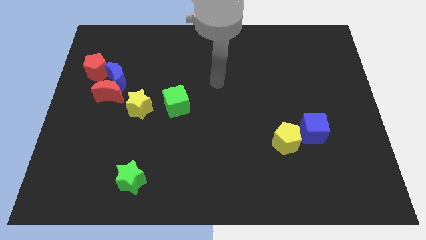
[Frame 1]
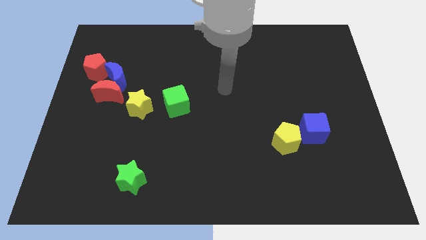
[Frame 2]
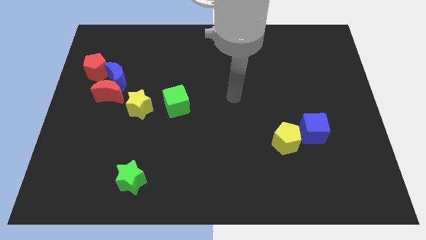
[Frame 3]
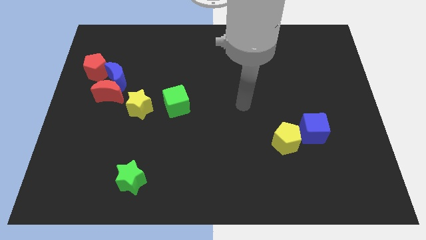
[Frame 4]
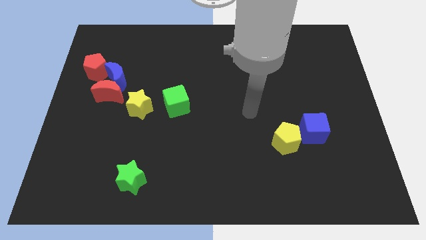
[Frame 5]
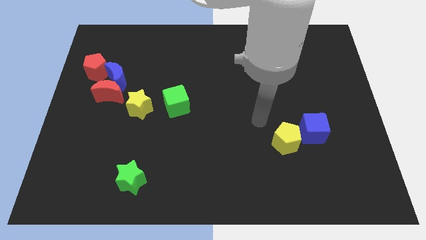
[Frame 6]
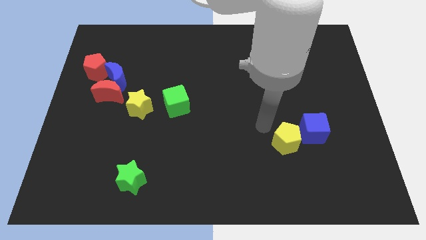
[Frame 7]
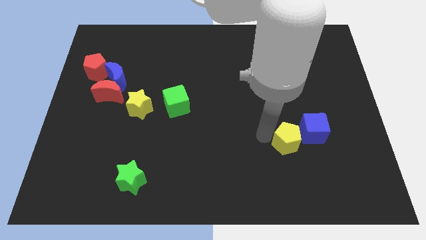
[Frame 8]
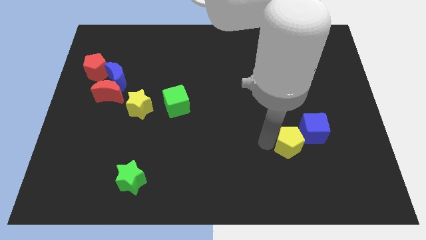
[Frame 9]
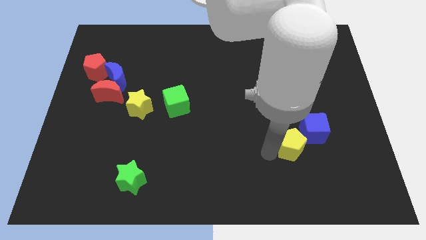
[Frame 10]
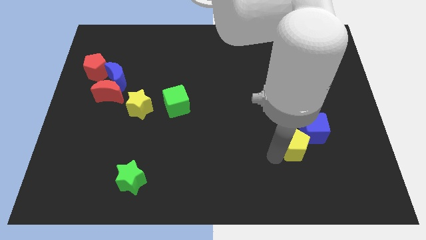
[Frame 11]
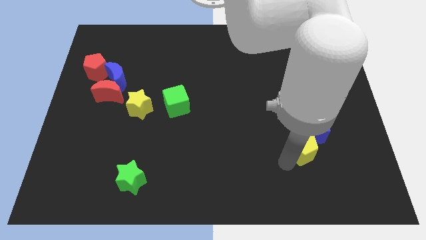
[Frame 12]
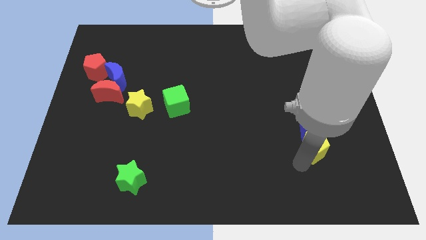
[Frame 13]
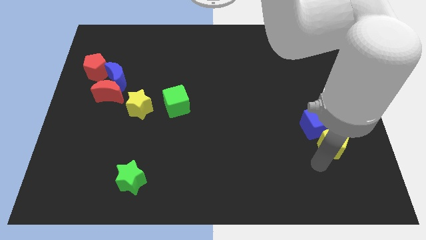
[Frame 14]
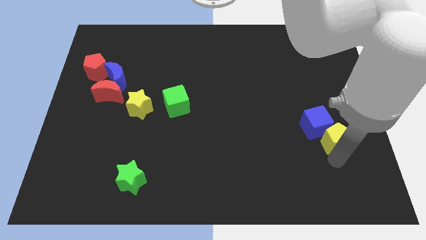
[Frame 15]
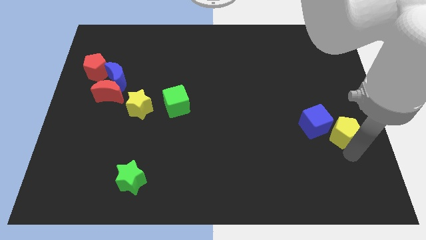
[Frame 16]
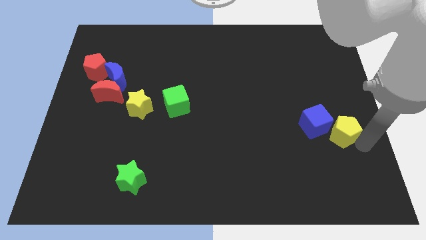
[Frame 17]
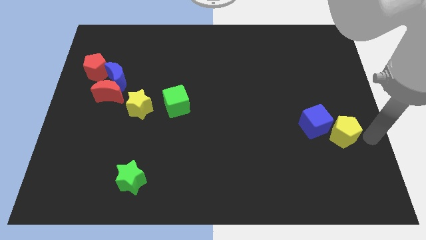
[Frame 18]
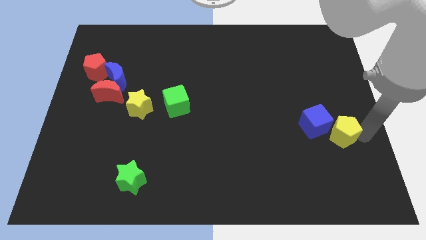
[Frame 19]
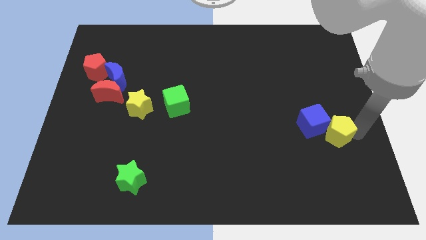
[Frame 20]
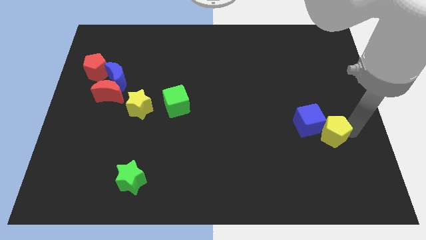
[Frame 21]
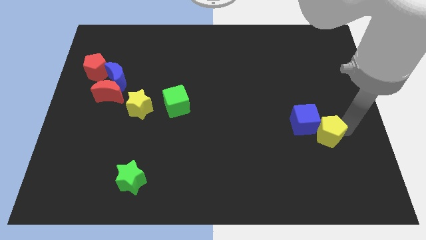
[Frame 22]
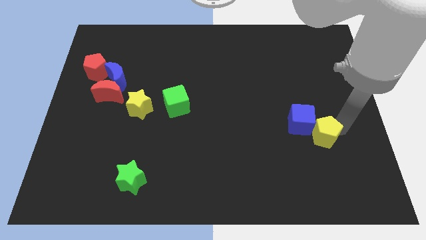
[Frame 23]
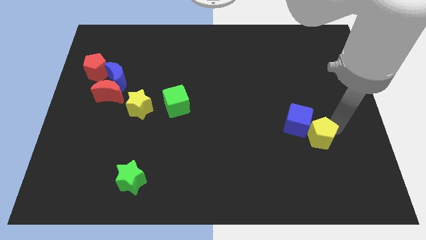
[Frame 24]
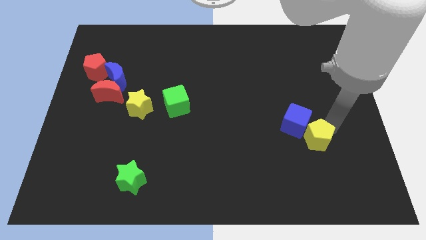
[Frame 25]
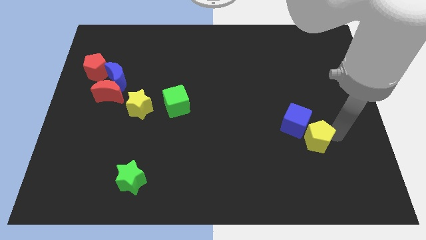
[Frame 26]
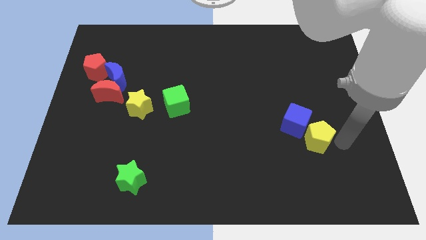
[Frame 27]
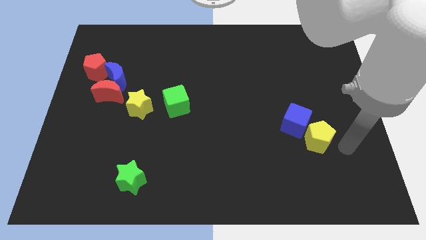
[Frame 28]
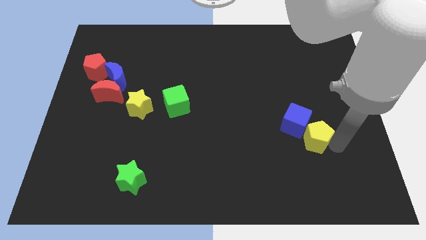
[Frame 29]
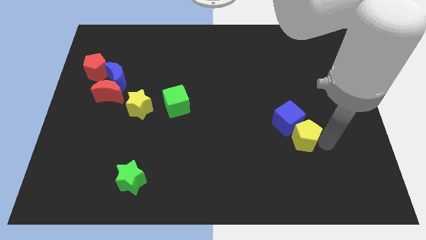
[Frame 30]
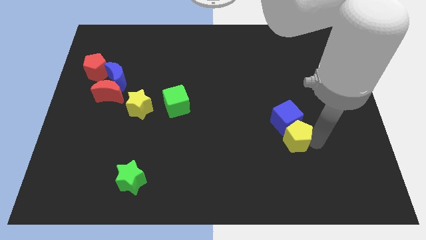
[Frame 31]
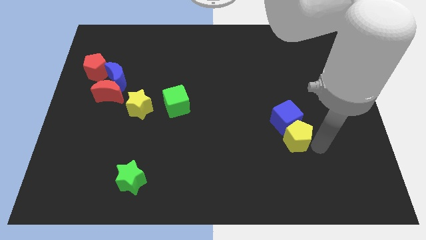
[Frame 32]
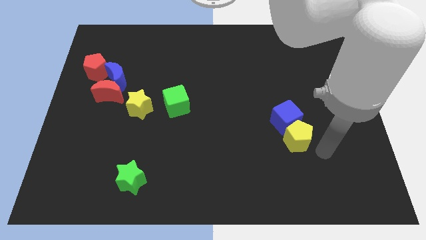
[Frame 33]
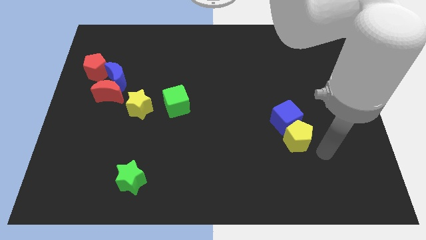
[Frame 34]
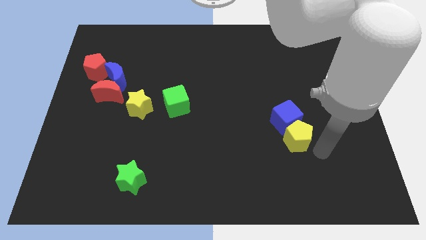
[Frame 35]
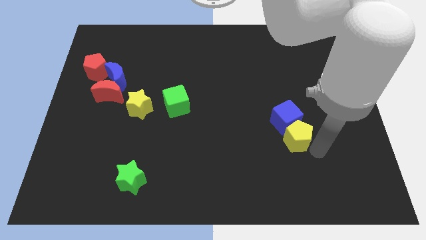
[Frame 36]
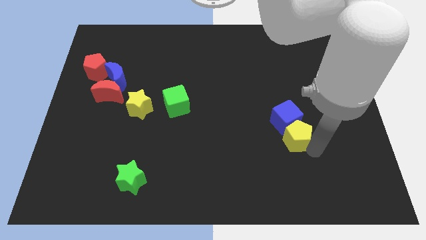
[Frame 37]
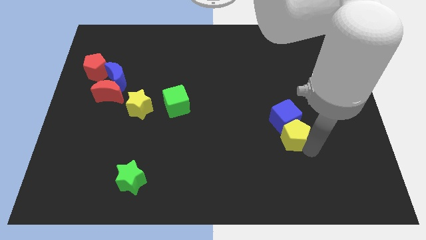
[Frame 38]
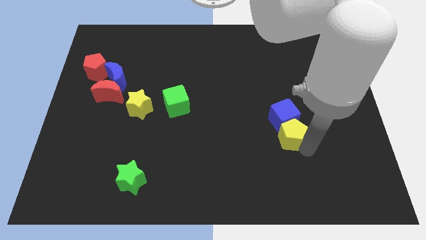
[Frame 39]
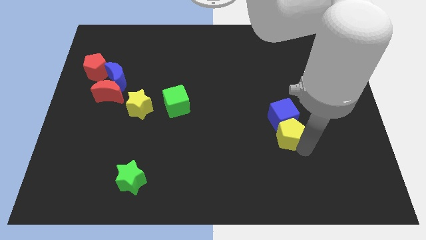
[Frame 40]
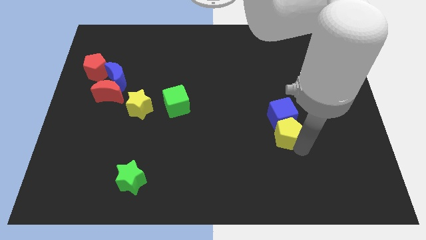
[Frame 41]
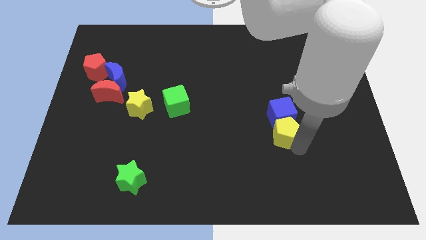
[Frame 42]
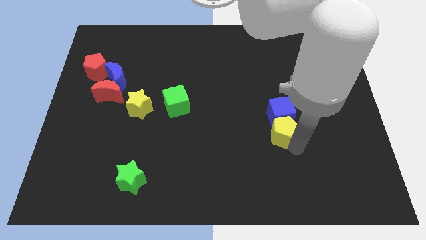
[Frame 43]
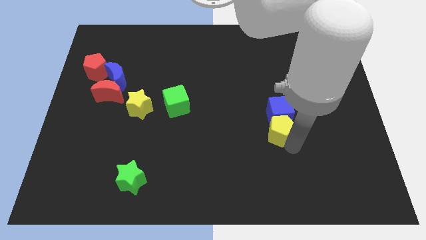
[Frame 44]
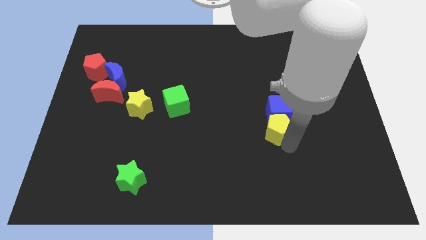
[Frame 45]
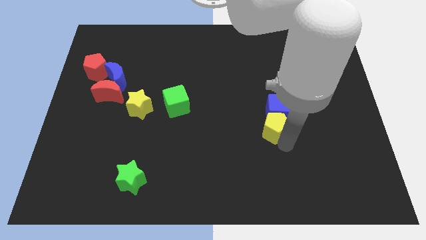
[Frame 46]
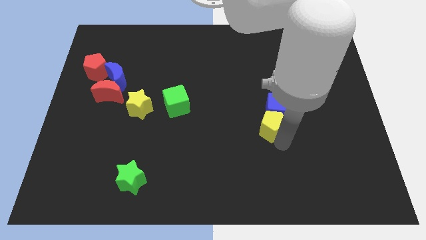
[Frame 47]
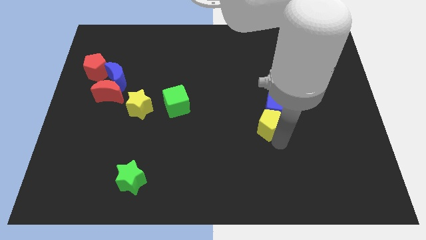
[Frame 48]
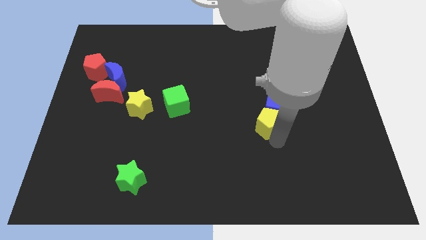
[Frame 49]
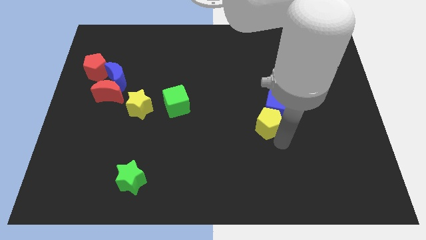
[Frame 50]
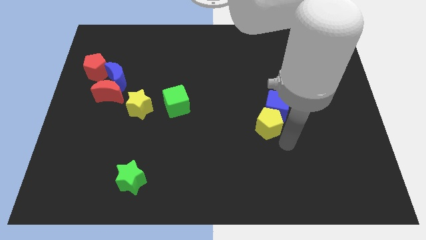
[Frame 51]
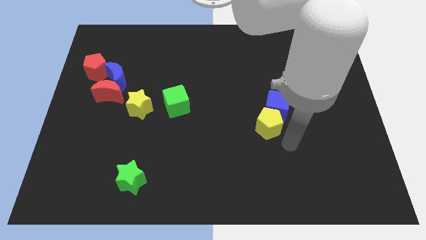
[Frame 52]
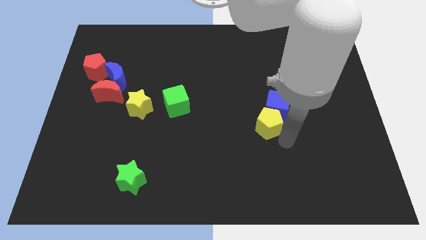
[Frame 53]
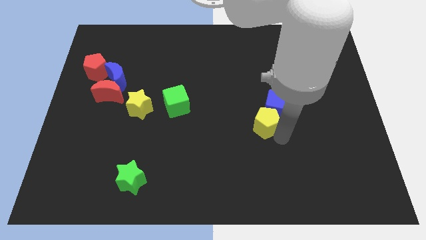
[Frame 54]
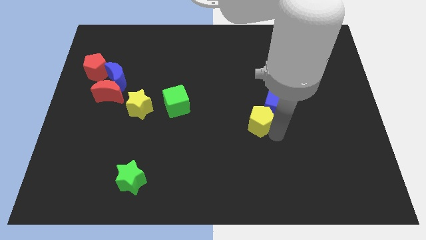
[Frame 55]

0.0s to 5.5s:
push the yellow pentagon to the center

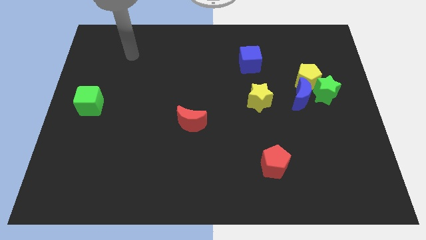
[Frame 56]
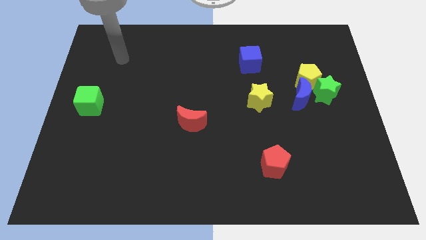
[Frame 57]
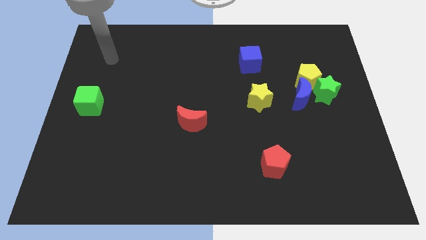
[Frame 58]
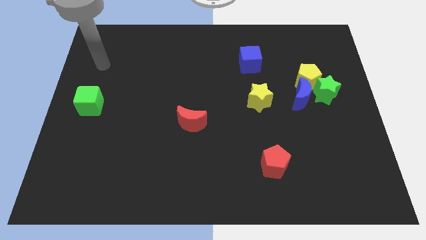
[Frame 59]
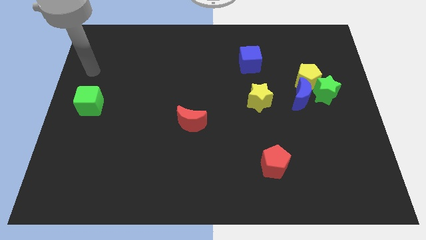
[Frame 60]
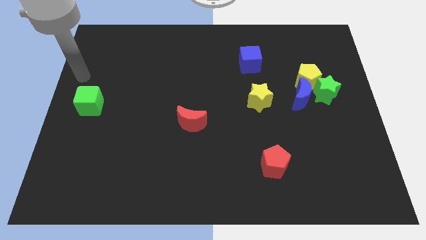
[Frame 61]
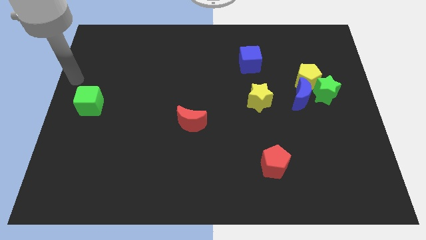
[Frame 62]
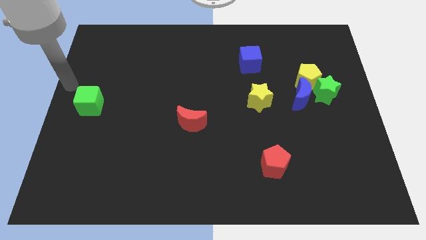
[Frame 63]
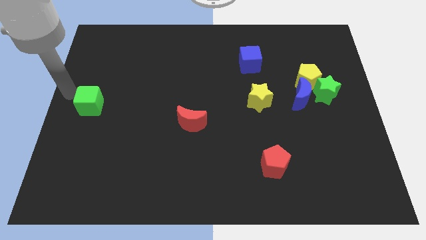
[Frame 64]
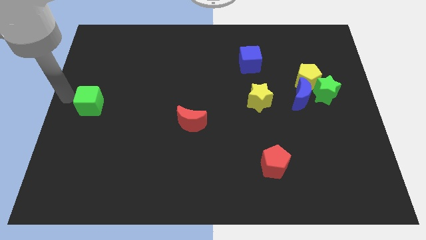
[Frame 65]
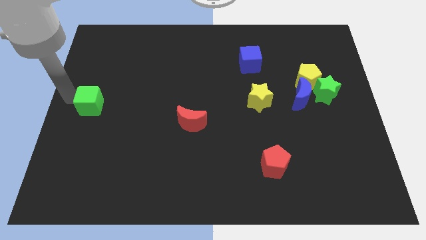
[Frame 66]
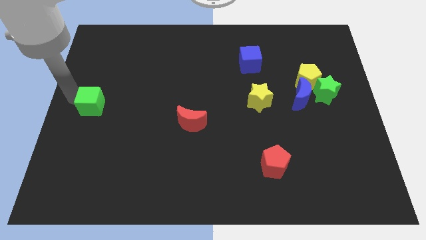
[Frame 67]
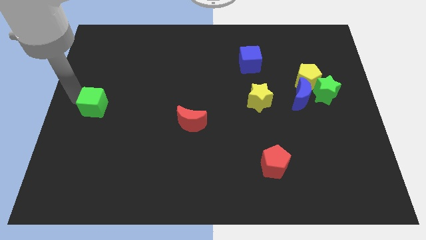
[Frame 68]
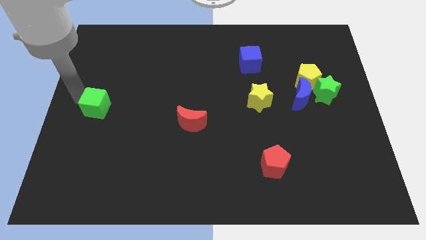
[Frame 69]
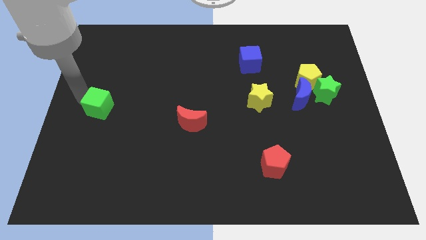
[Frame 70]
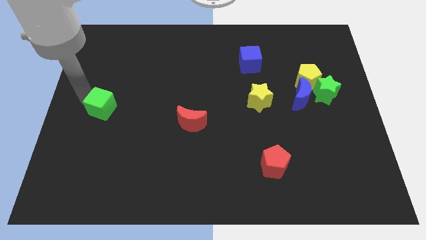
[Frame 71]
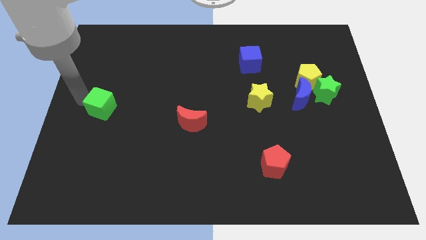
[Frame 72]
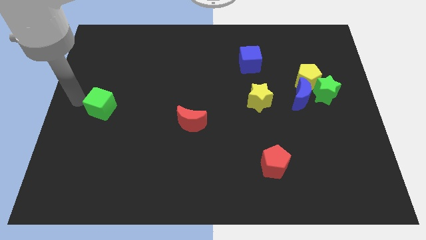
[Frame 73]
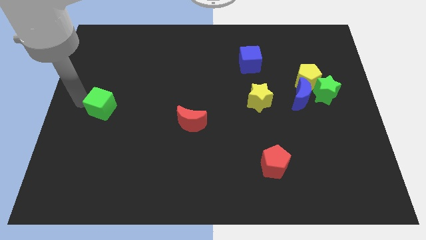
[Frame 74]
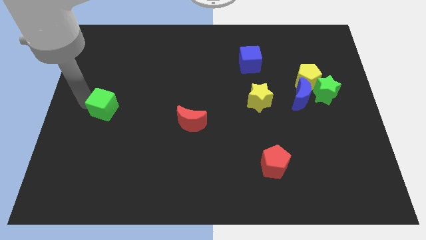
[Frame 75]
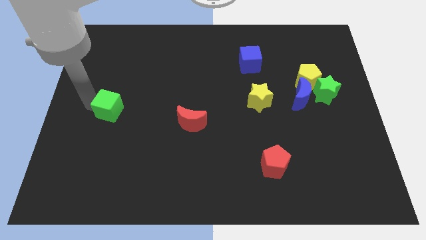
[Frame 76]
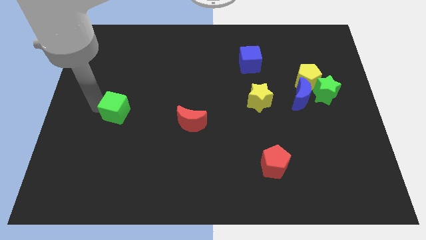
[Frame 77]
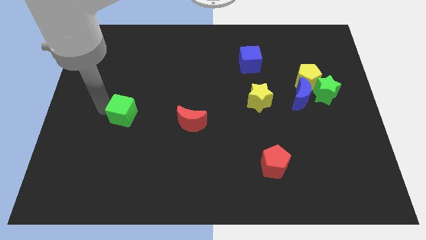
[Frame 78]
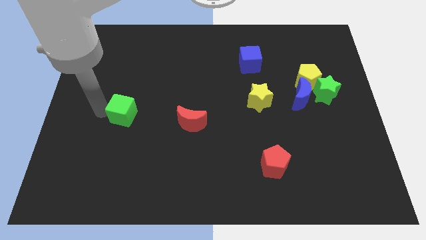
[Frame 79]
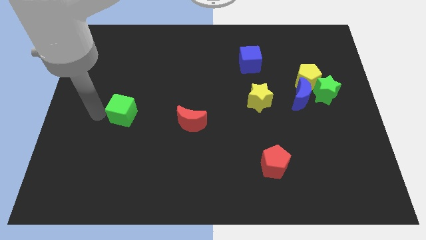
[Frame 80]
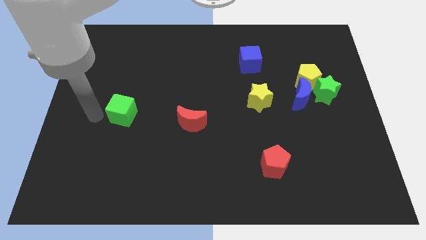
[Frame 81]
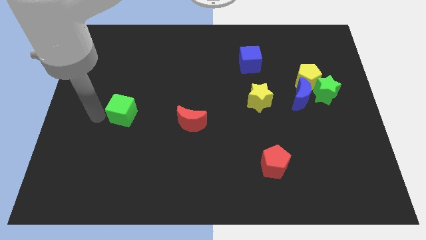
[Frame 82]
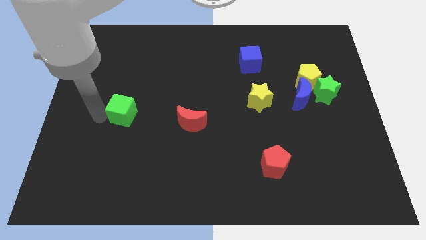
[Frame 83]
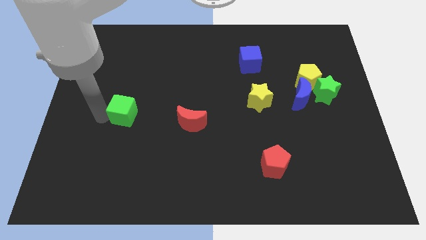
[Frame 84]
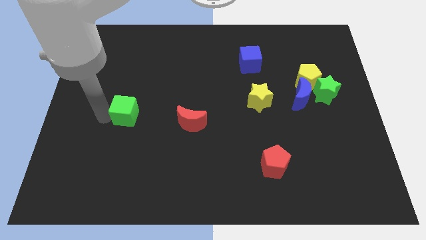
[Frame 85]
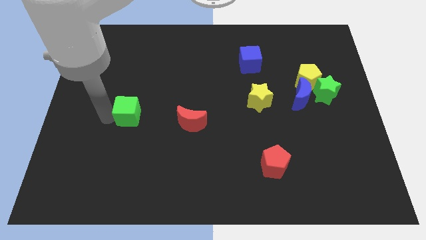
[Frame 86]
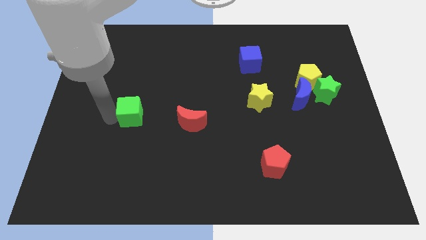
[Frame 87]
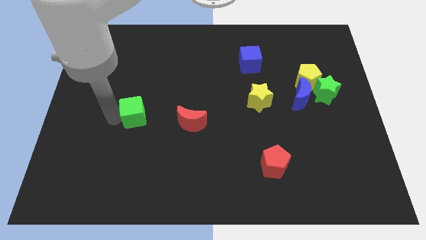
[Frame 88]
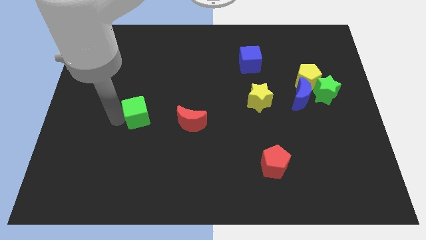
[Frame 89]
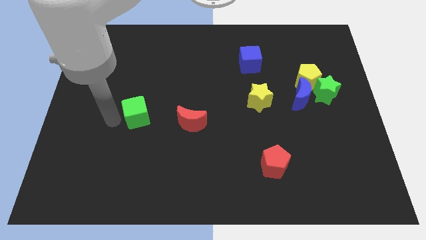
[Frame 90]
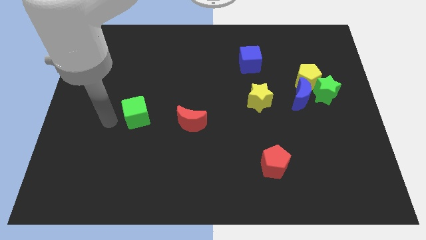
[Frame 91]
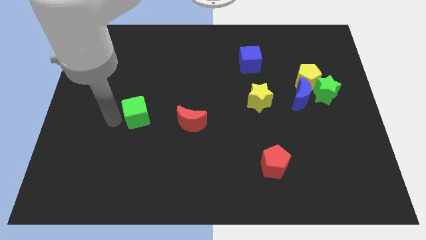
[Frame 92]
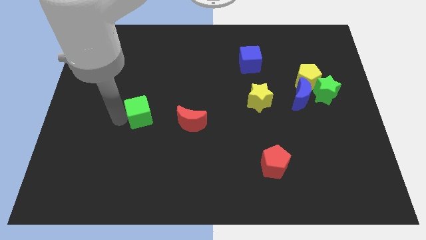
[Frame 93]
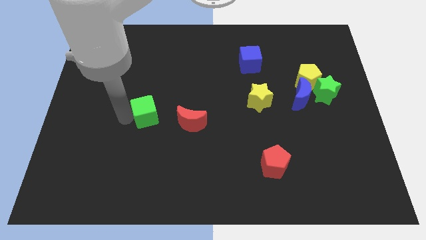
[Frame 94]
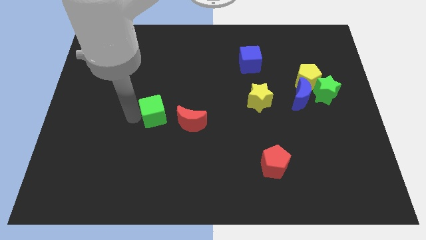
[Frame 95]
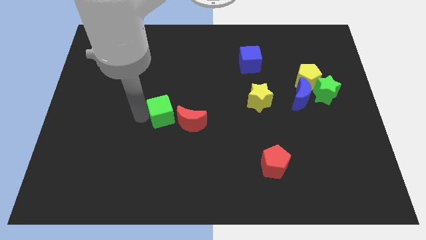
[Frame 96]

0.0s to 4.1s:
slide the green cube to the middle
